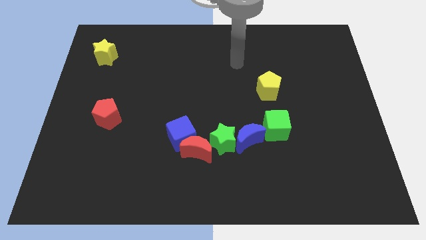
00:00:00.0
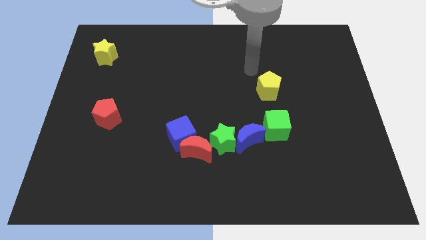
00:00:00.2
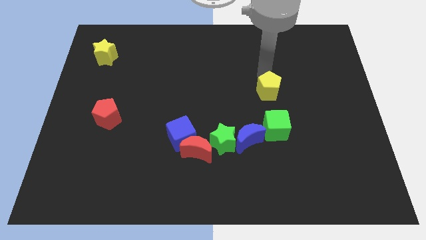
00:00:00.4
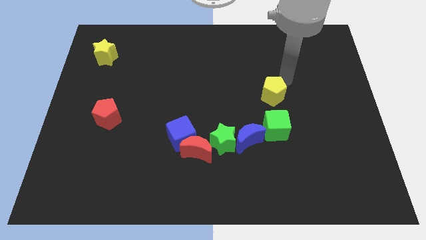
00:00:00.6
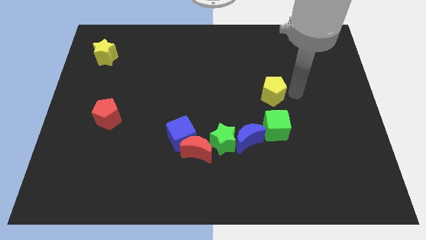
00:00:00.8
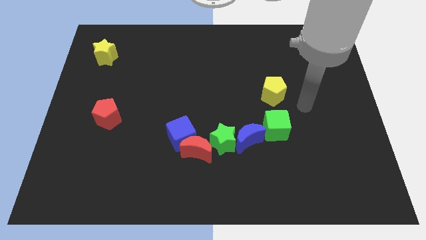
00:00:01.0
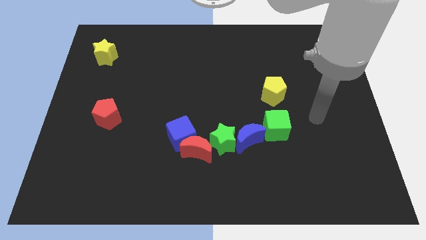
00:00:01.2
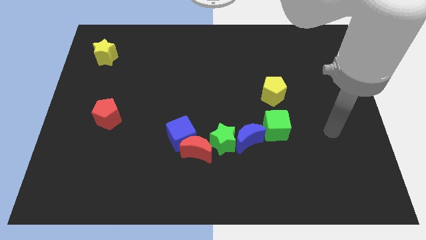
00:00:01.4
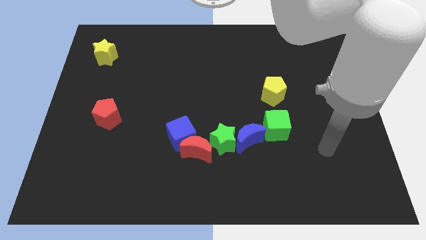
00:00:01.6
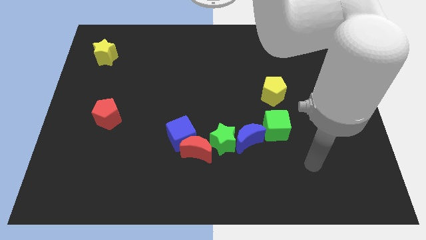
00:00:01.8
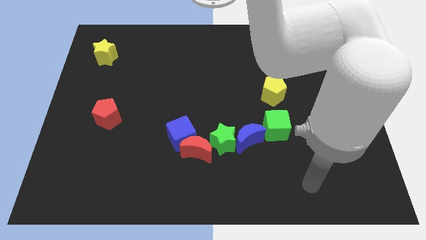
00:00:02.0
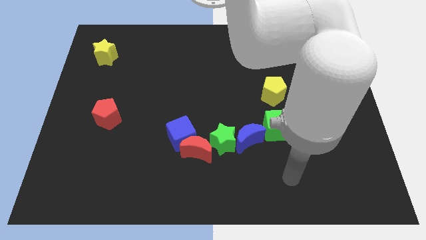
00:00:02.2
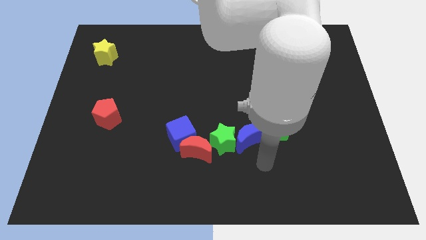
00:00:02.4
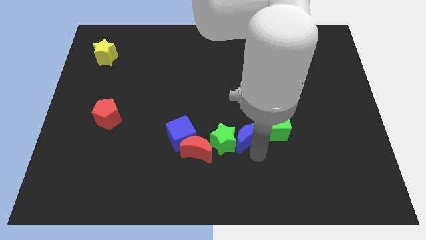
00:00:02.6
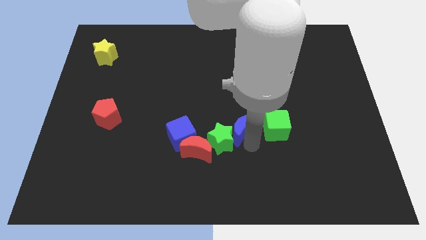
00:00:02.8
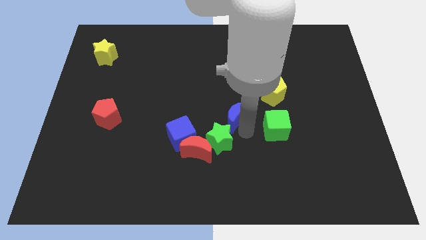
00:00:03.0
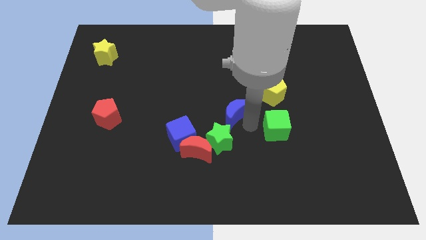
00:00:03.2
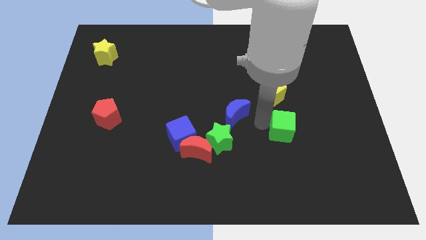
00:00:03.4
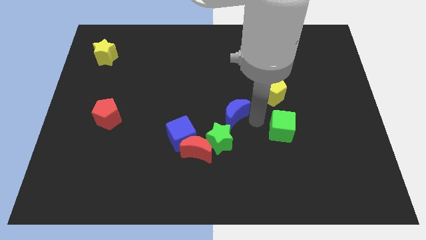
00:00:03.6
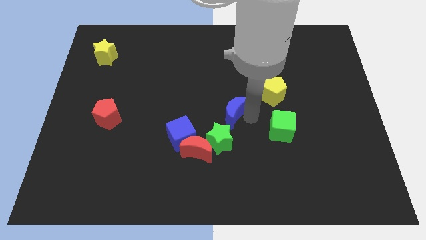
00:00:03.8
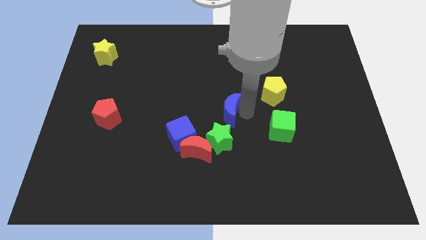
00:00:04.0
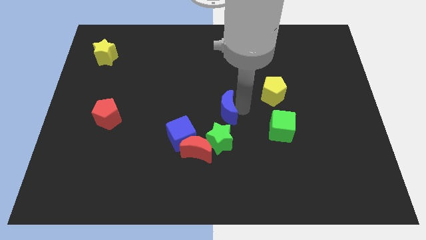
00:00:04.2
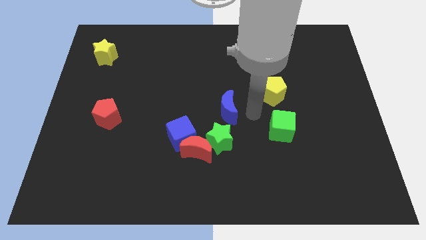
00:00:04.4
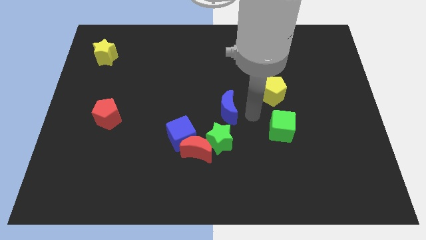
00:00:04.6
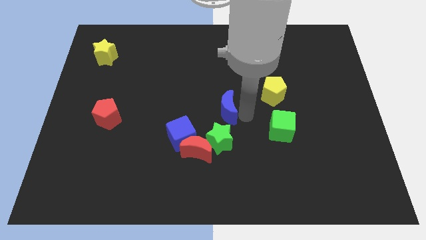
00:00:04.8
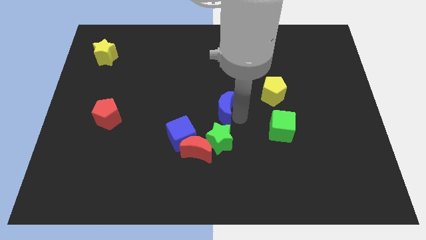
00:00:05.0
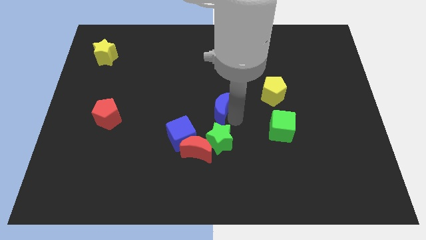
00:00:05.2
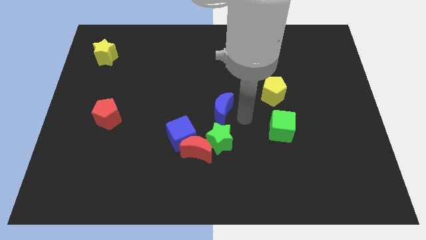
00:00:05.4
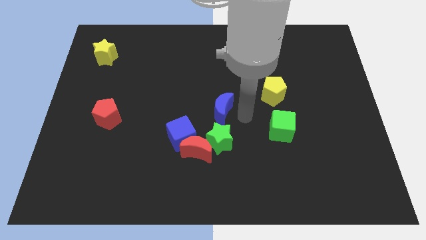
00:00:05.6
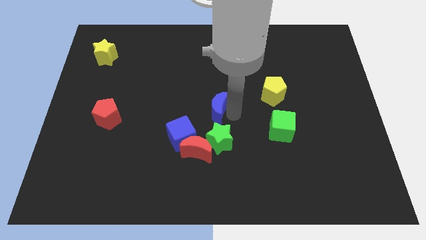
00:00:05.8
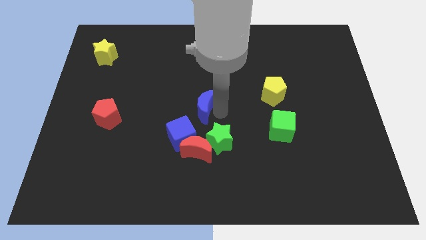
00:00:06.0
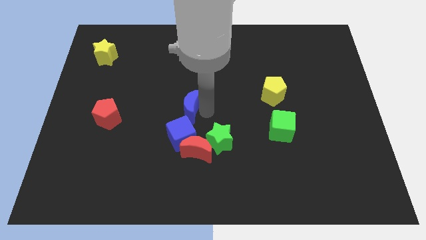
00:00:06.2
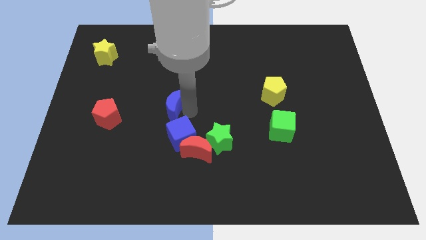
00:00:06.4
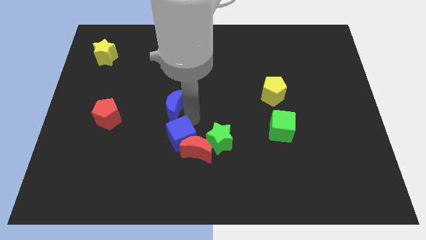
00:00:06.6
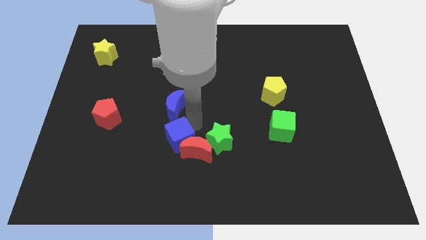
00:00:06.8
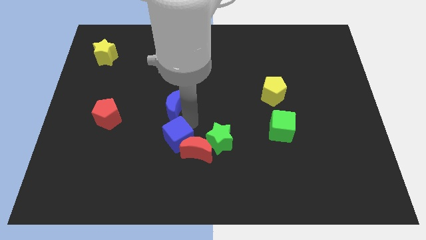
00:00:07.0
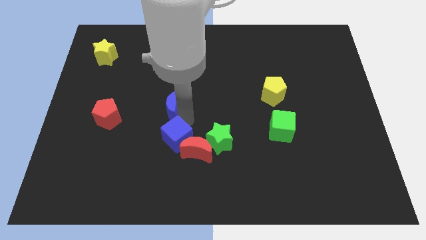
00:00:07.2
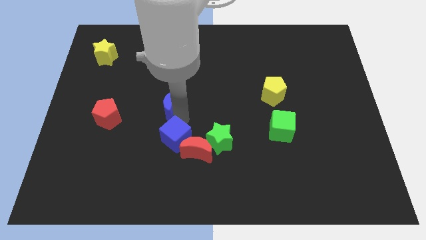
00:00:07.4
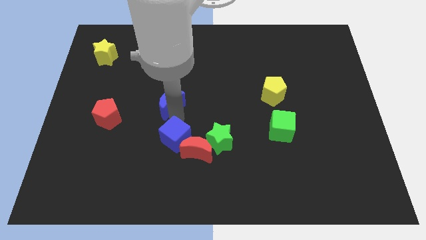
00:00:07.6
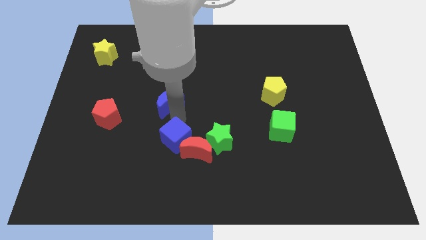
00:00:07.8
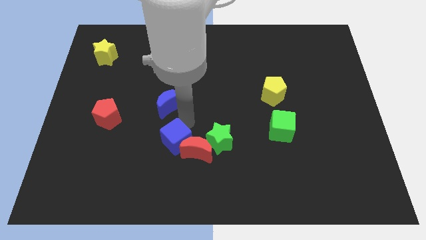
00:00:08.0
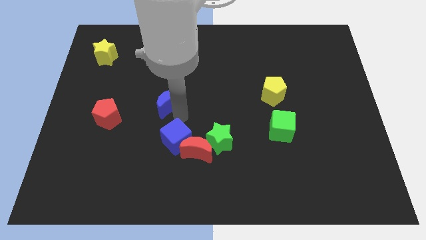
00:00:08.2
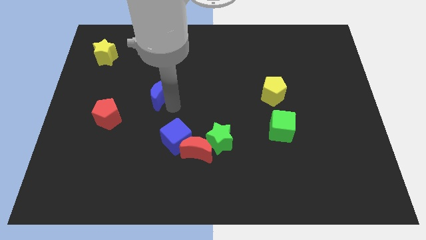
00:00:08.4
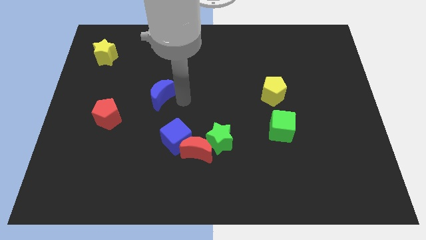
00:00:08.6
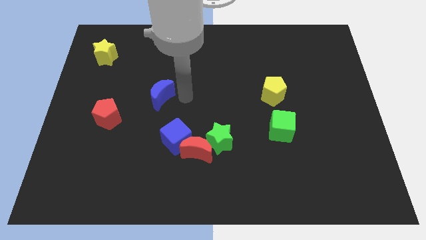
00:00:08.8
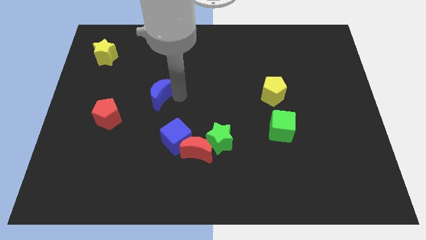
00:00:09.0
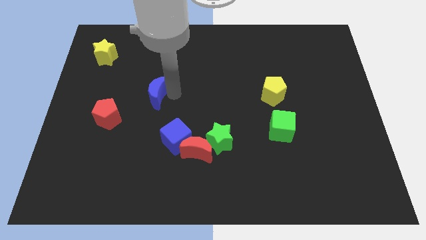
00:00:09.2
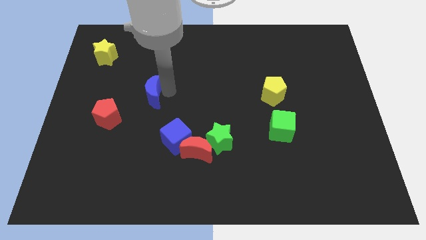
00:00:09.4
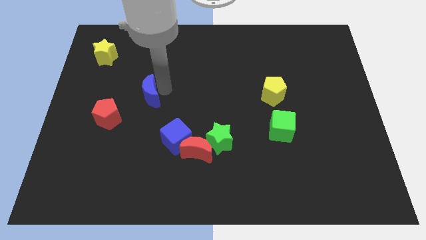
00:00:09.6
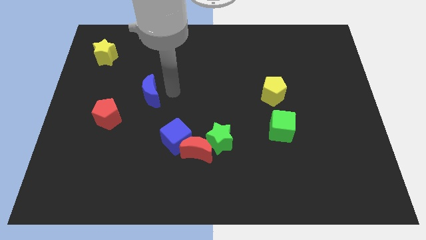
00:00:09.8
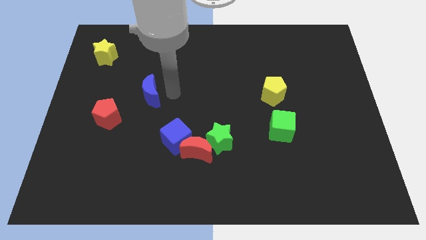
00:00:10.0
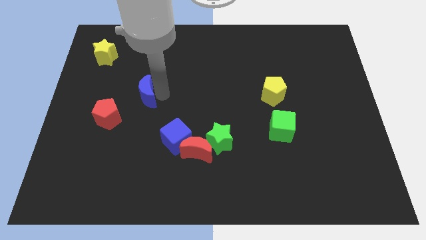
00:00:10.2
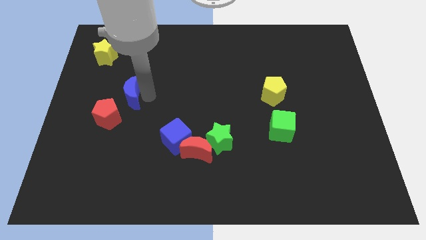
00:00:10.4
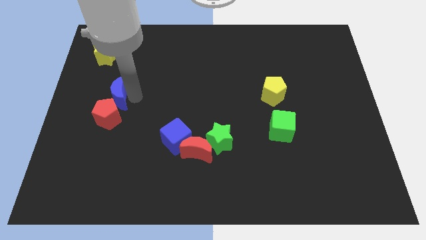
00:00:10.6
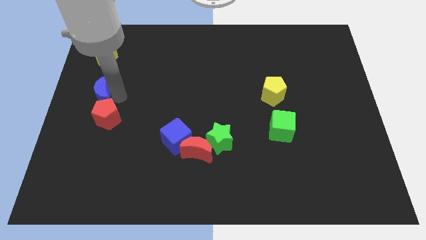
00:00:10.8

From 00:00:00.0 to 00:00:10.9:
push the blue moon to the left side

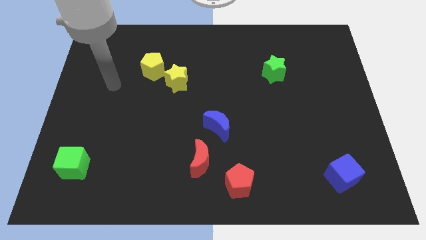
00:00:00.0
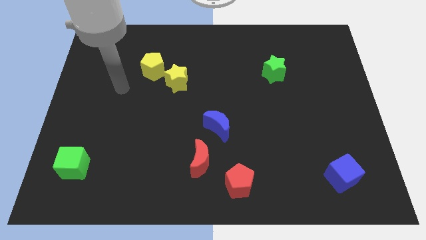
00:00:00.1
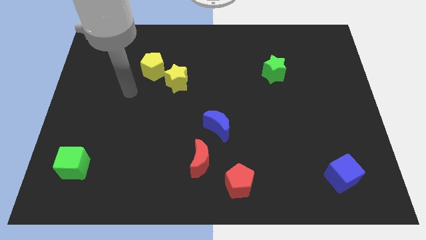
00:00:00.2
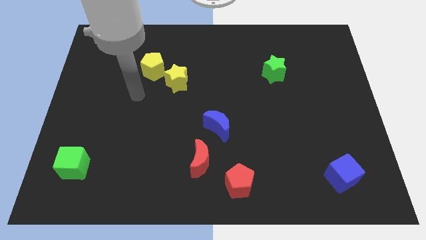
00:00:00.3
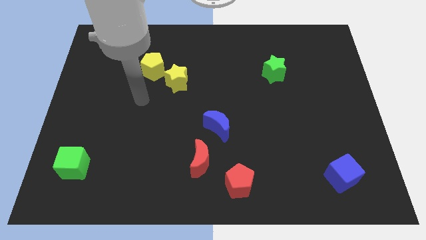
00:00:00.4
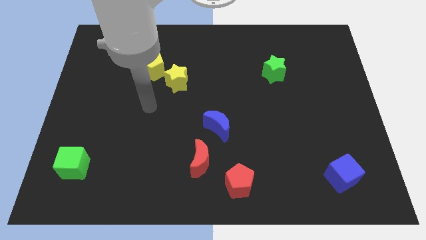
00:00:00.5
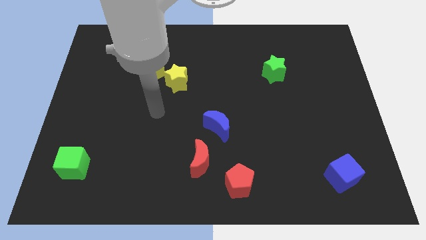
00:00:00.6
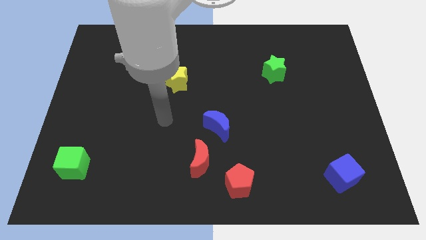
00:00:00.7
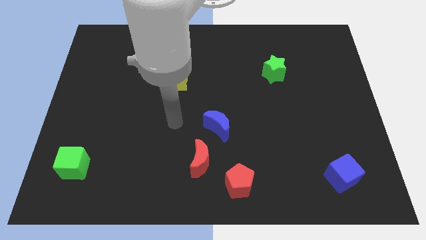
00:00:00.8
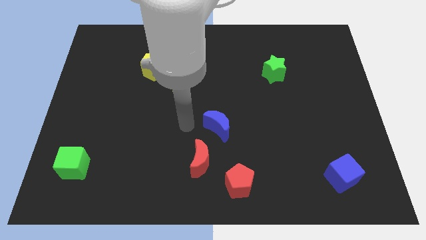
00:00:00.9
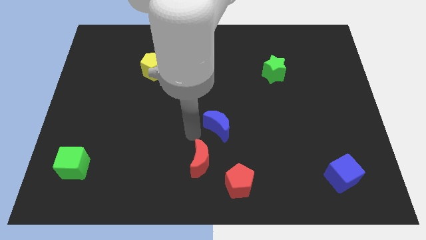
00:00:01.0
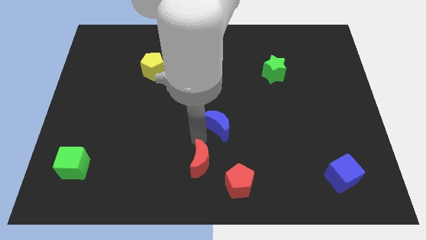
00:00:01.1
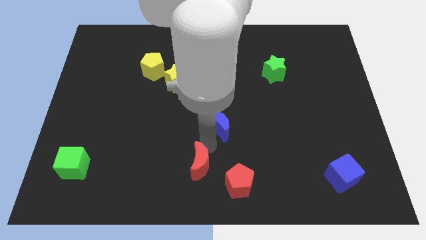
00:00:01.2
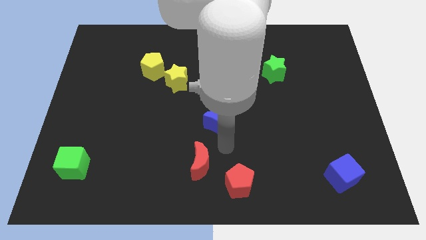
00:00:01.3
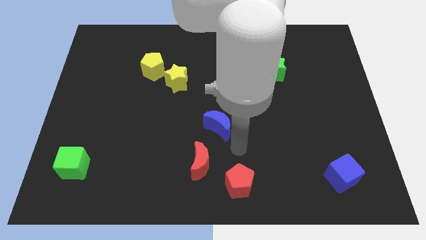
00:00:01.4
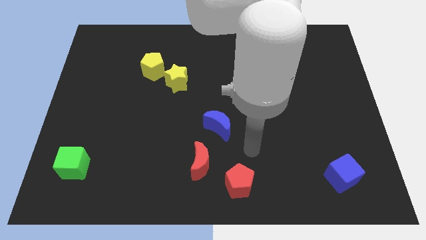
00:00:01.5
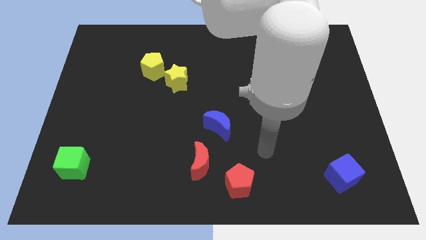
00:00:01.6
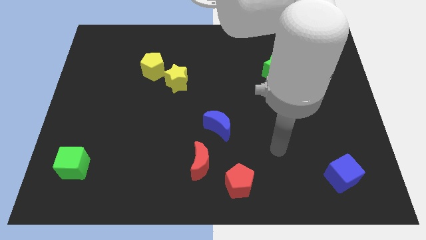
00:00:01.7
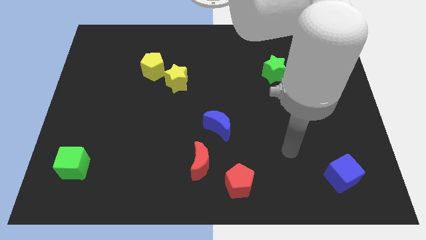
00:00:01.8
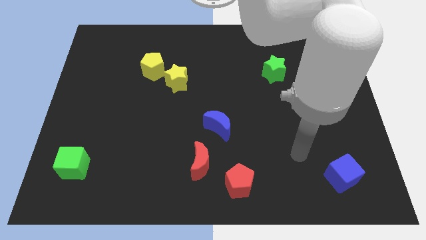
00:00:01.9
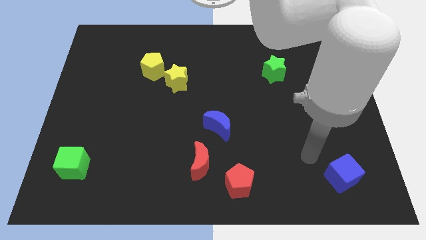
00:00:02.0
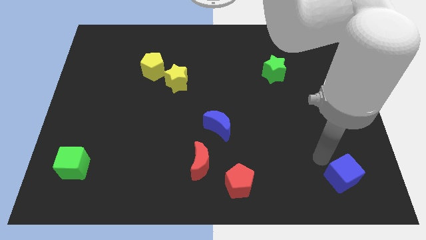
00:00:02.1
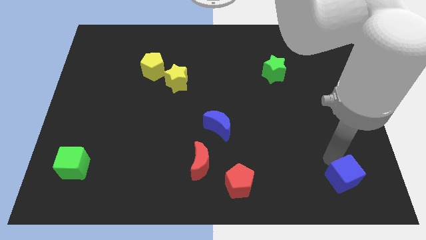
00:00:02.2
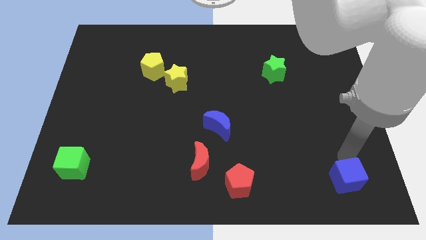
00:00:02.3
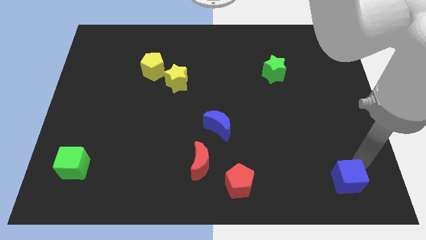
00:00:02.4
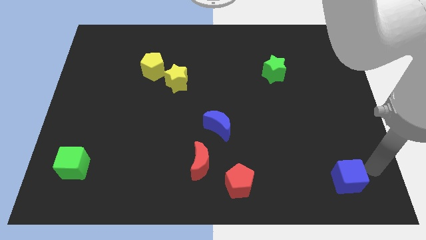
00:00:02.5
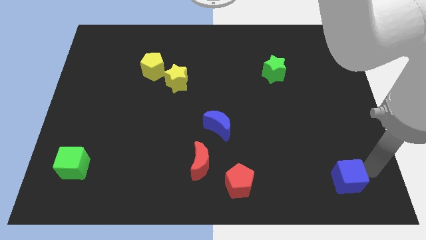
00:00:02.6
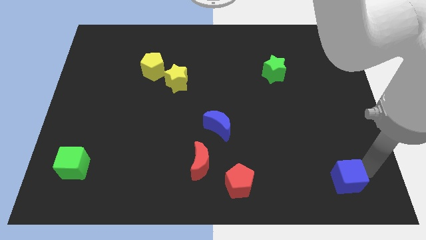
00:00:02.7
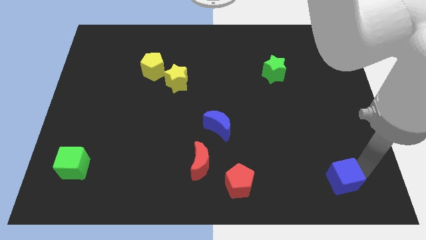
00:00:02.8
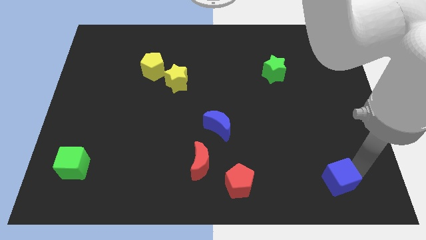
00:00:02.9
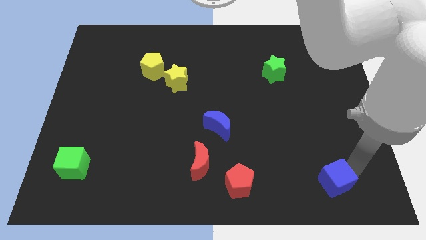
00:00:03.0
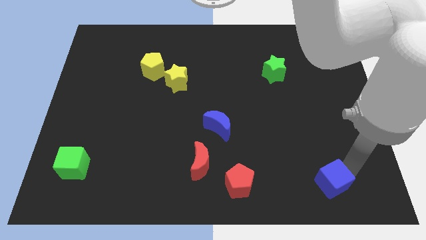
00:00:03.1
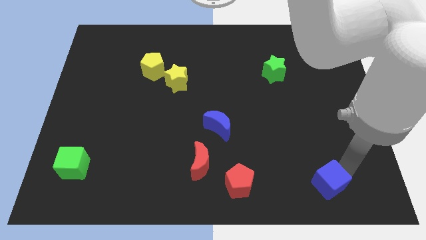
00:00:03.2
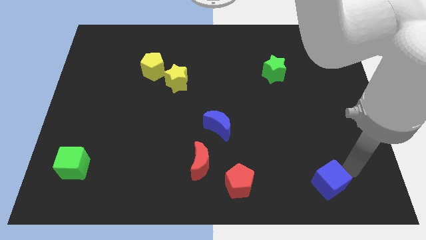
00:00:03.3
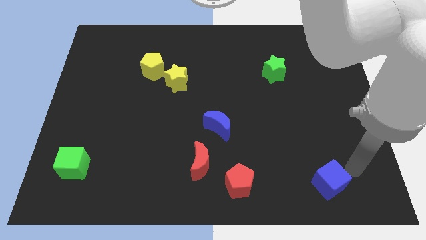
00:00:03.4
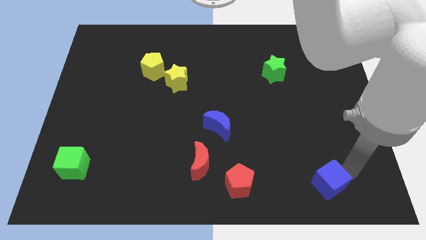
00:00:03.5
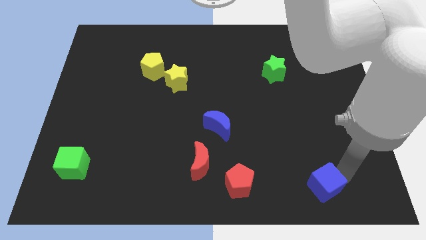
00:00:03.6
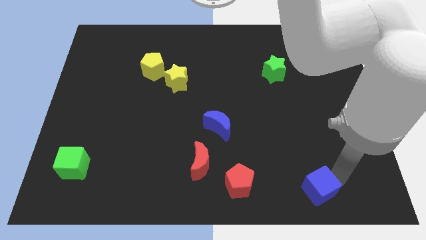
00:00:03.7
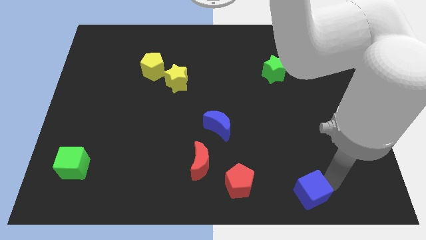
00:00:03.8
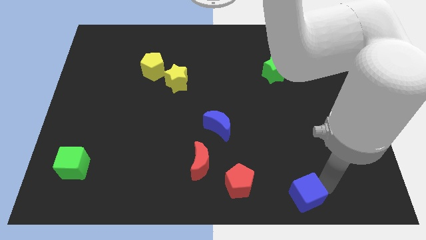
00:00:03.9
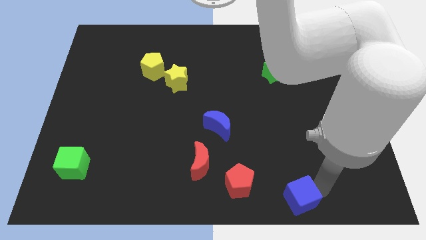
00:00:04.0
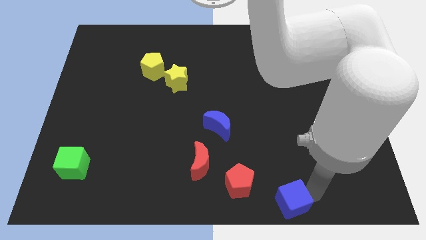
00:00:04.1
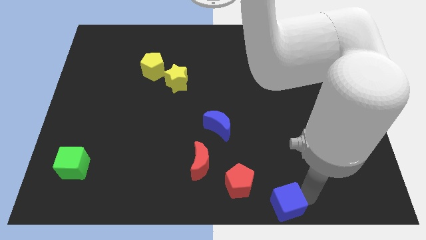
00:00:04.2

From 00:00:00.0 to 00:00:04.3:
push the blue cube to the bottom side
